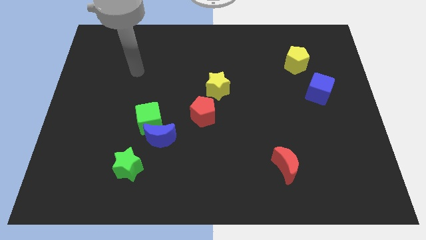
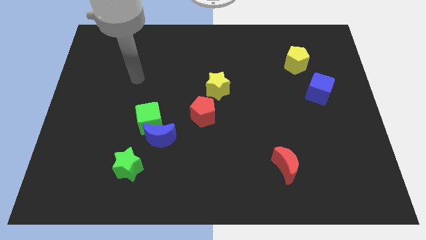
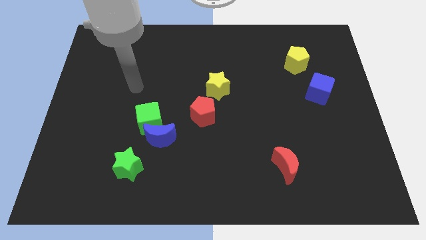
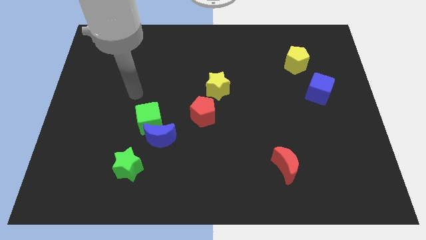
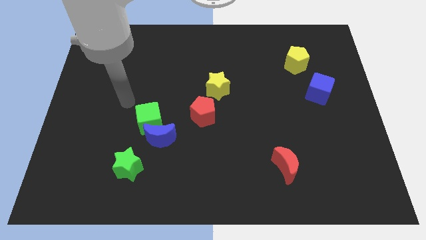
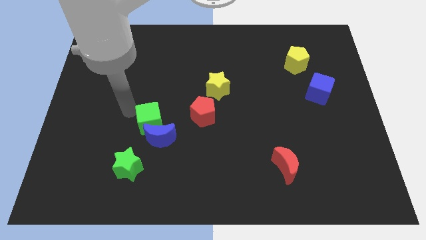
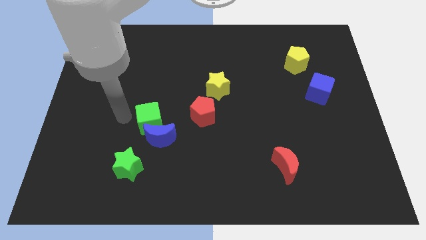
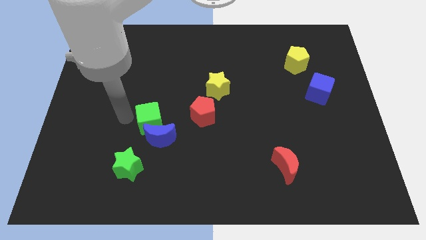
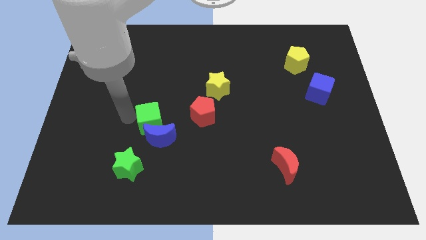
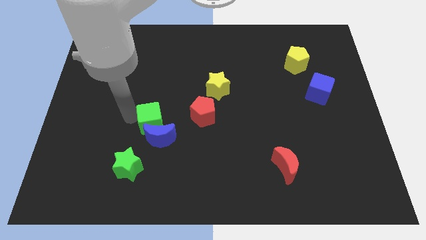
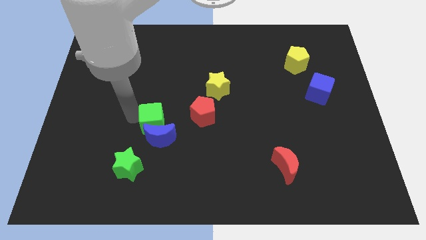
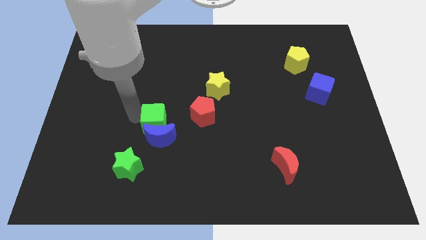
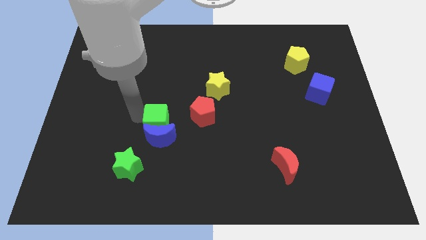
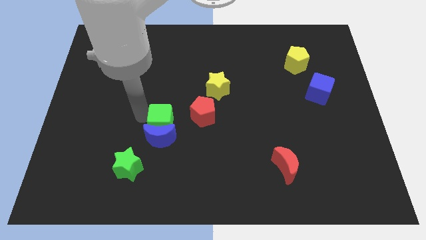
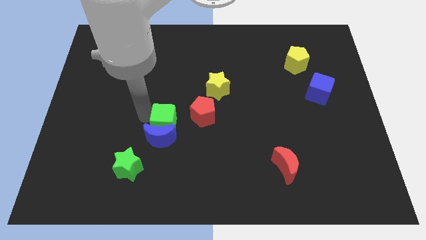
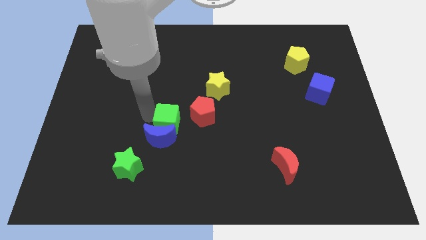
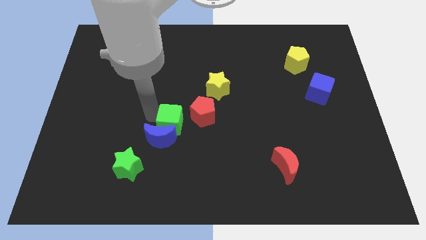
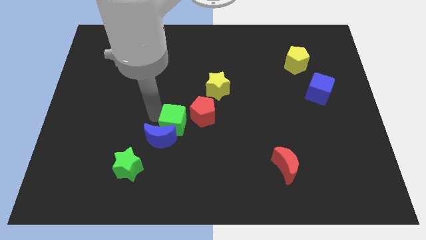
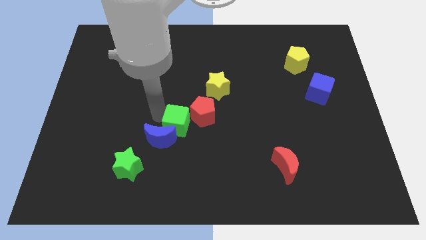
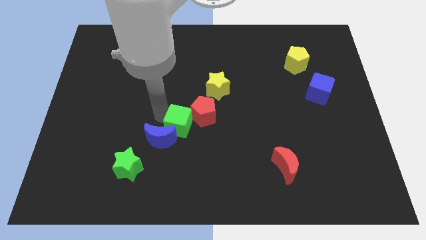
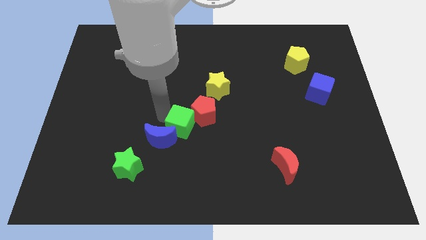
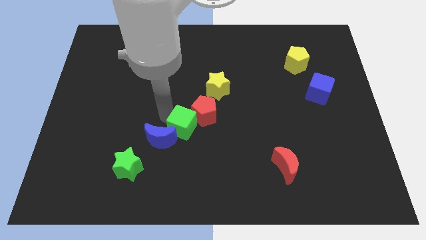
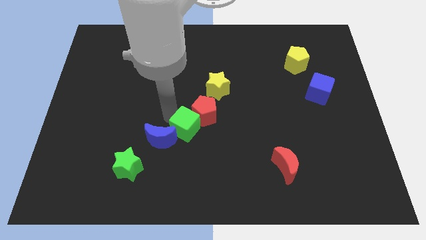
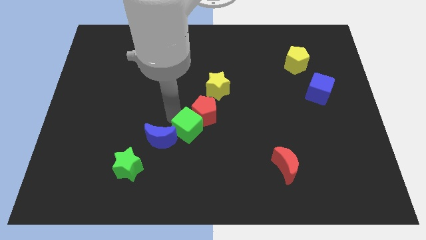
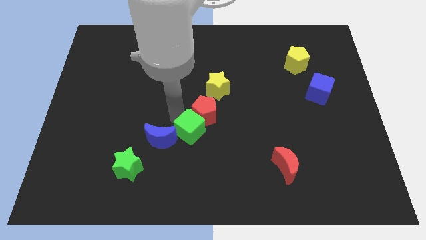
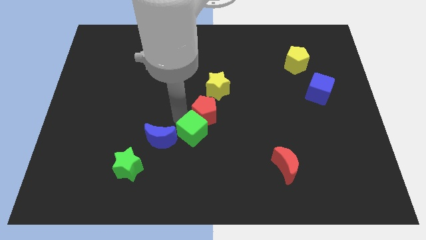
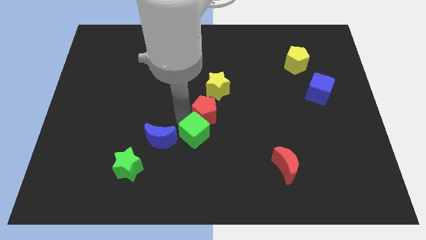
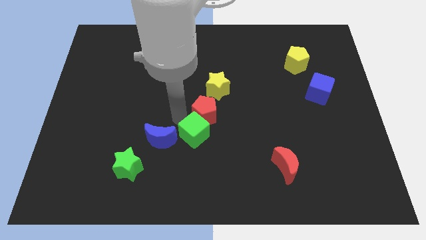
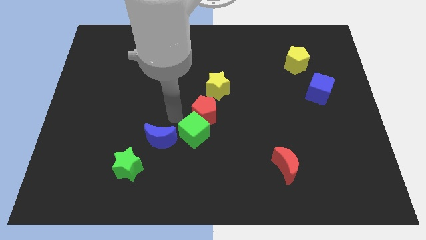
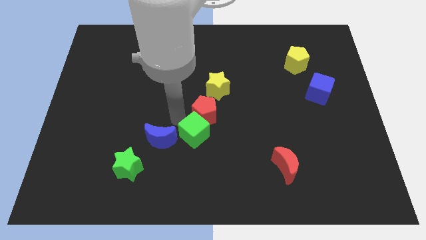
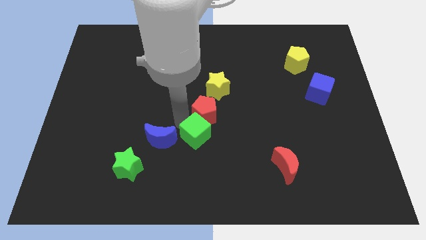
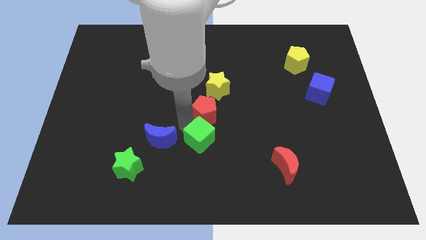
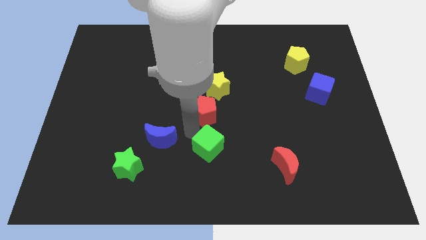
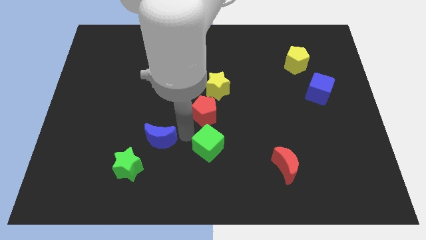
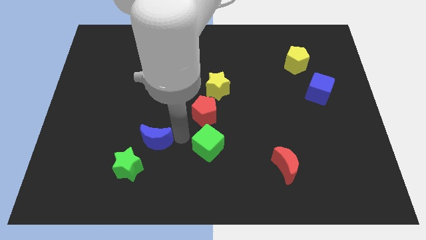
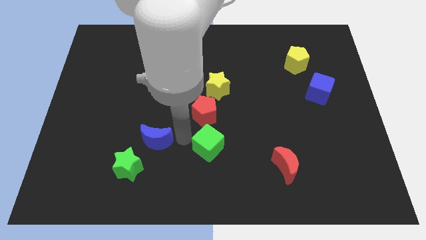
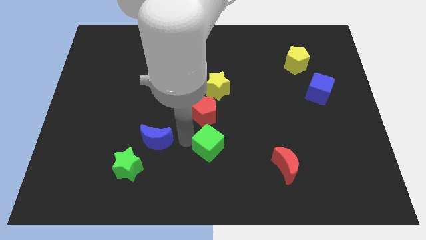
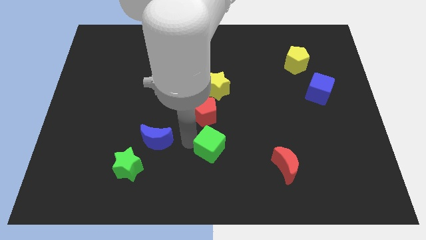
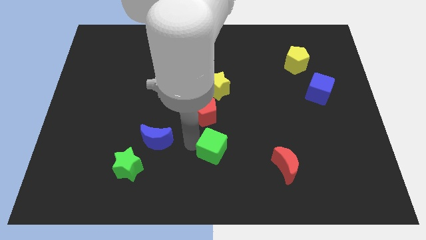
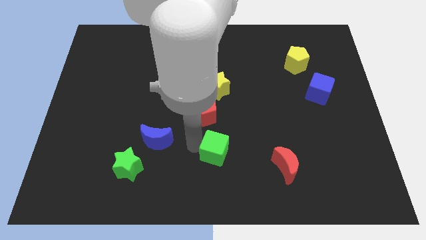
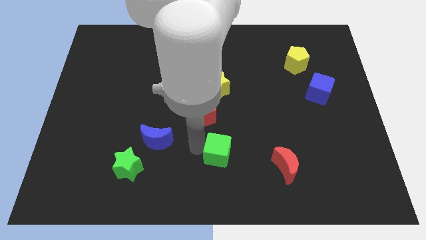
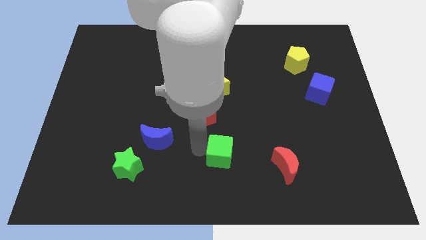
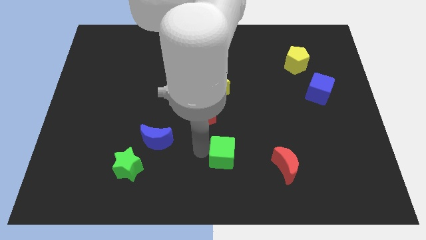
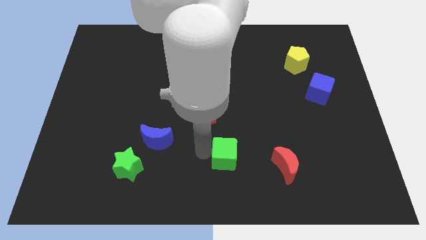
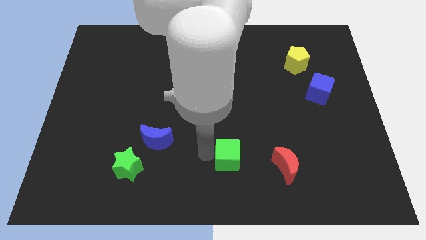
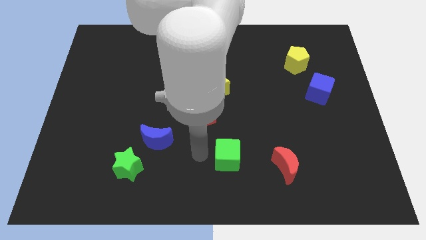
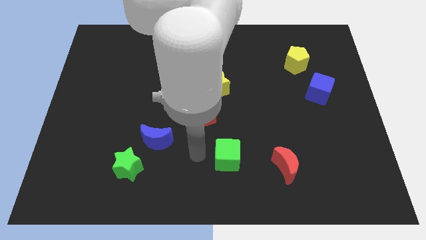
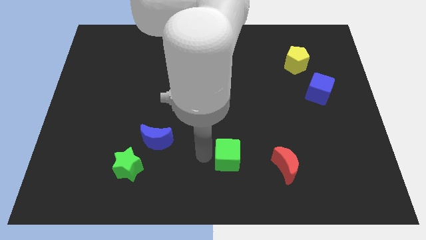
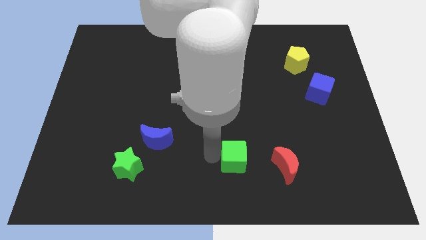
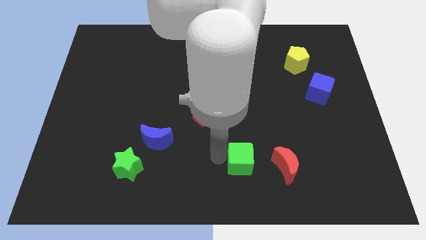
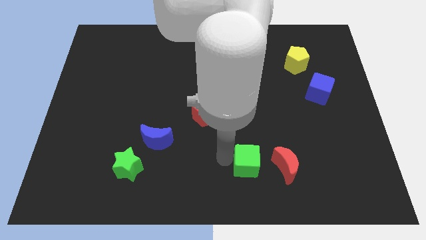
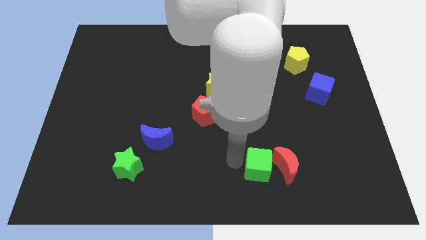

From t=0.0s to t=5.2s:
put the green cube towards the red moon

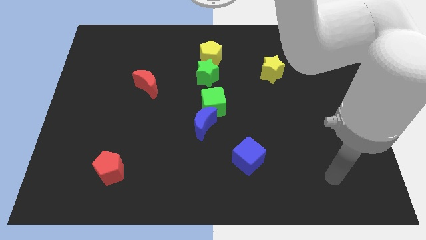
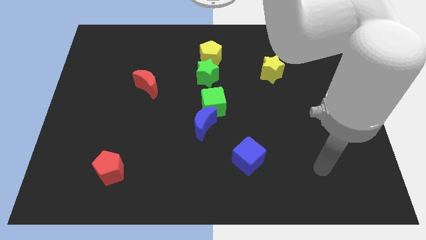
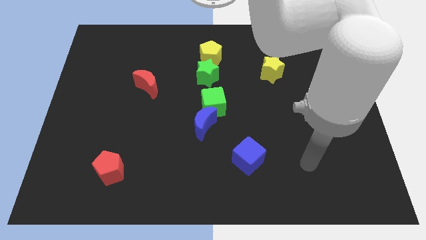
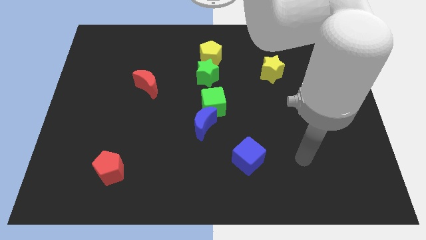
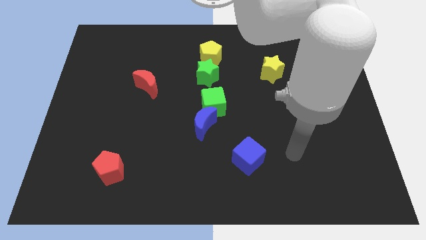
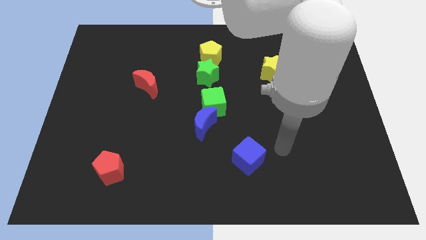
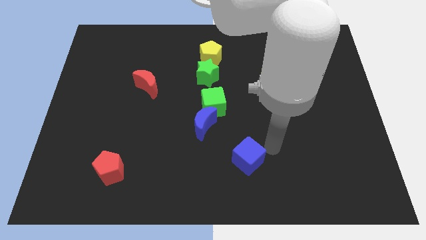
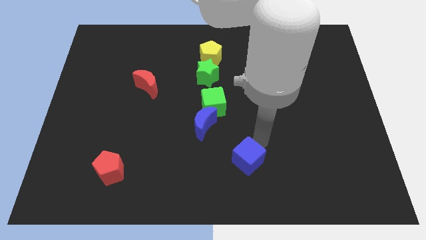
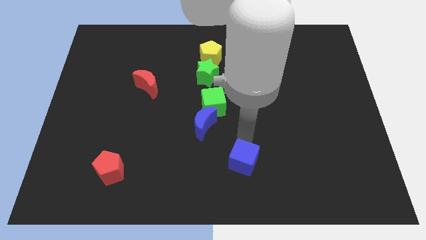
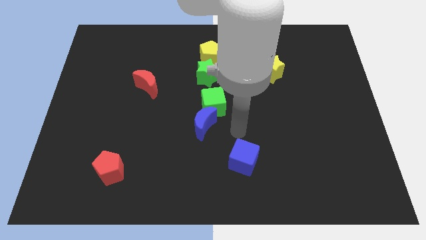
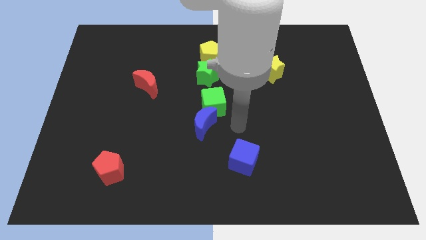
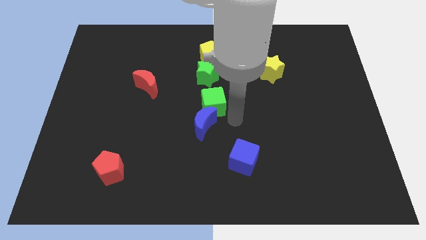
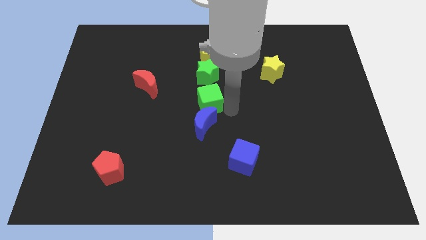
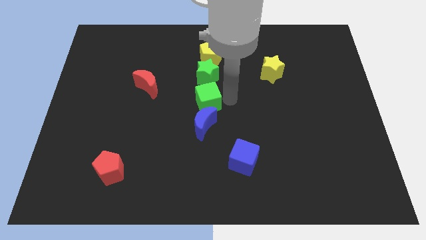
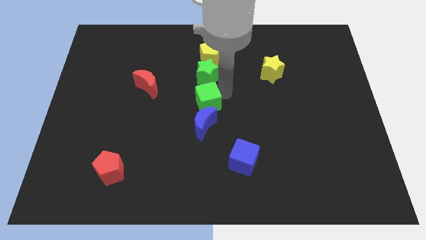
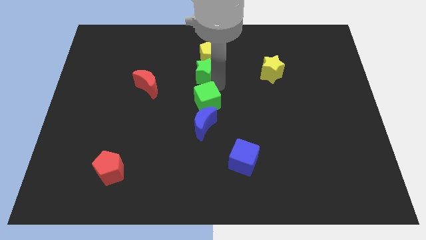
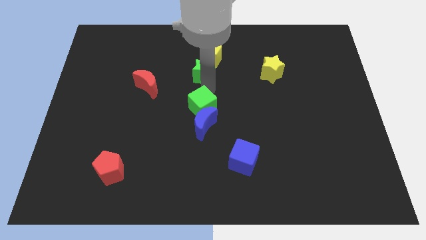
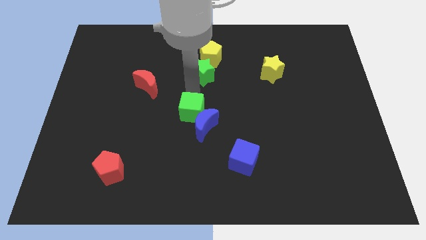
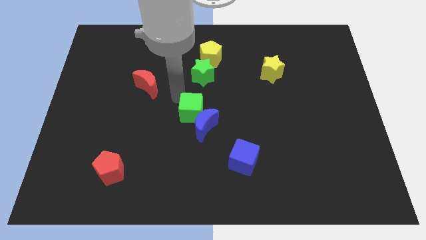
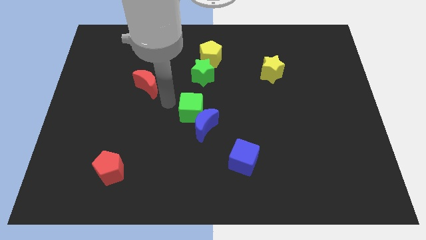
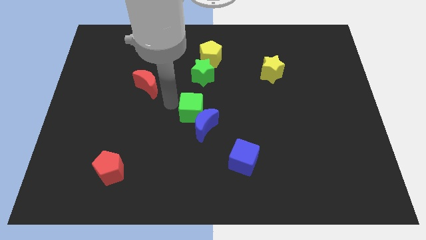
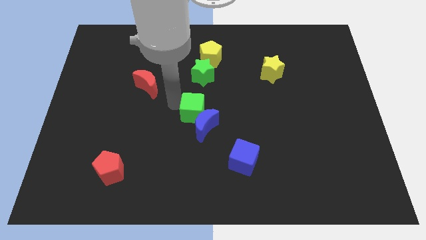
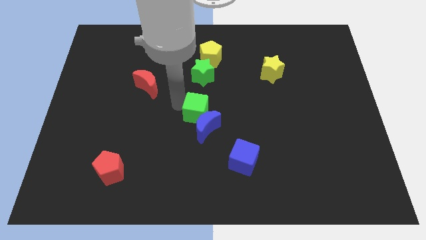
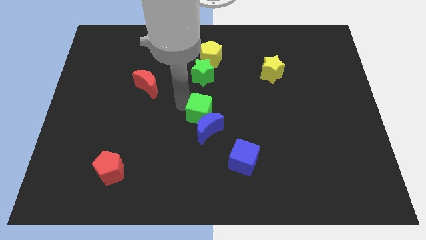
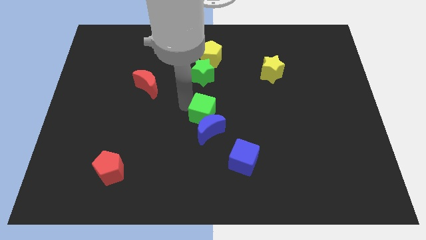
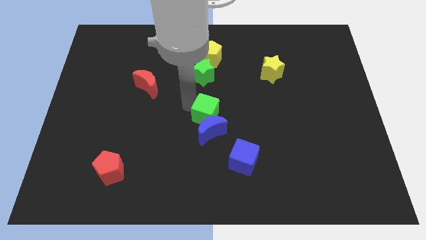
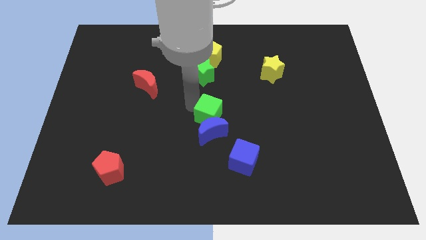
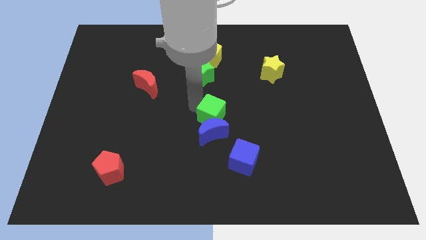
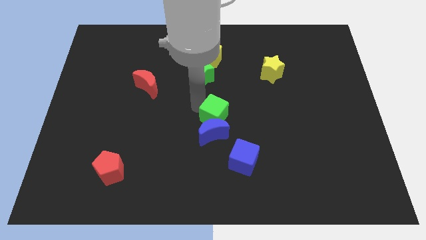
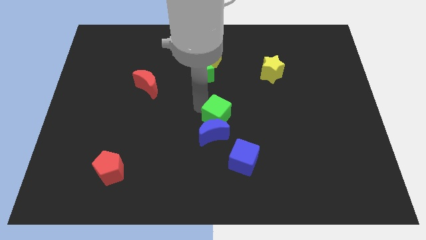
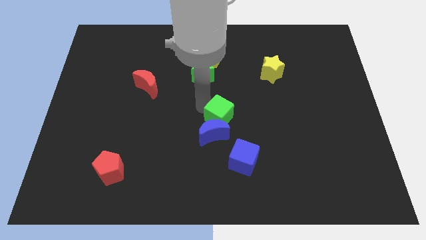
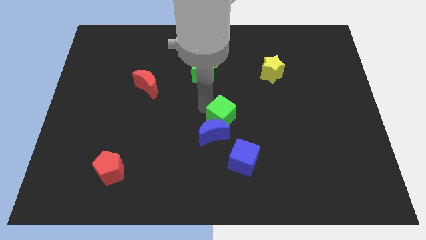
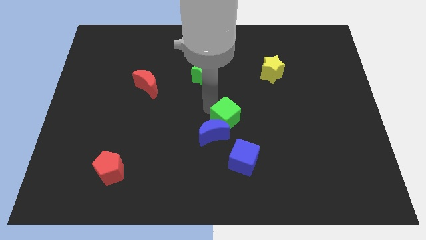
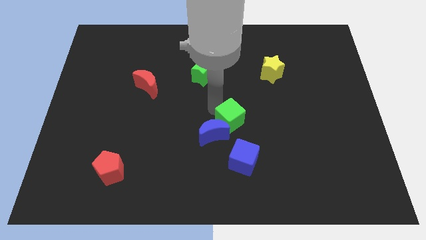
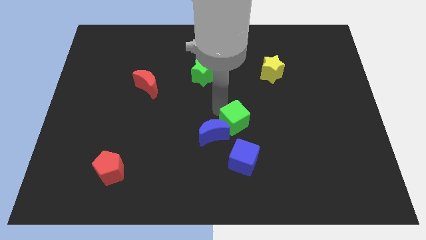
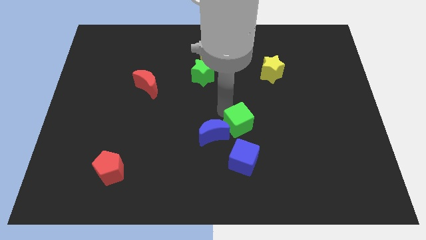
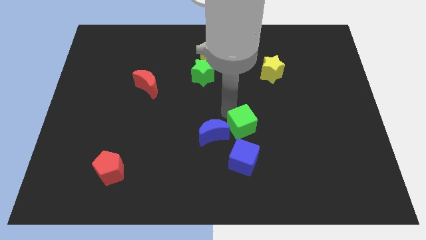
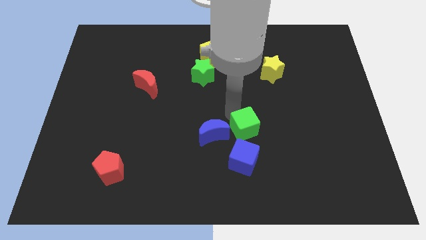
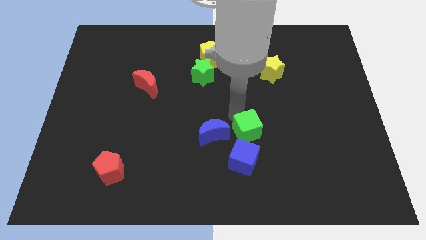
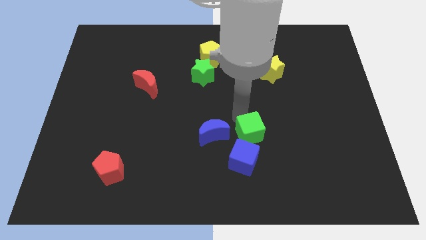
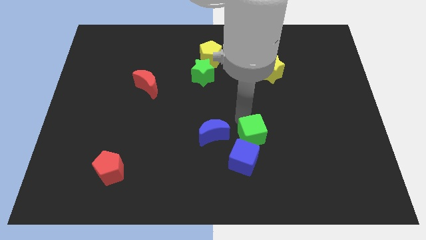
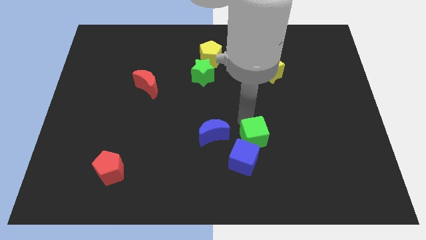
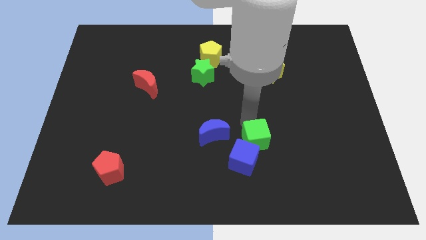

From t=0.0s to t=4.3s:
put the green cube towards the blue cube
